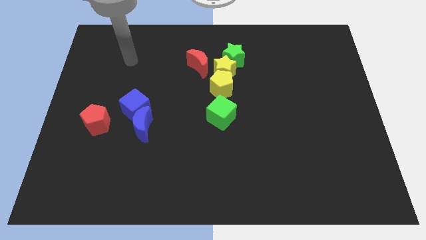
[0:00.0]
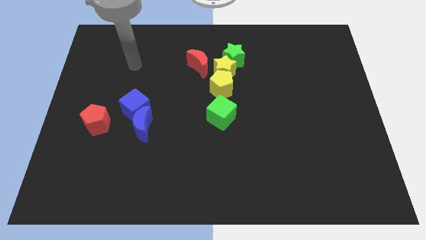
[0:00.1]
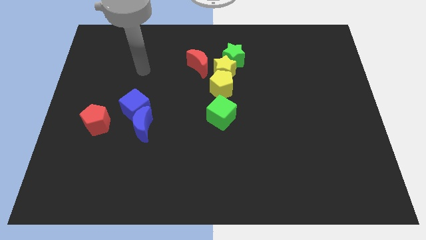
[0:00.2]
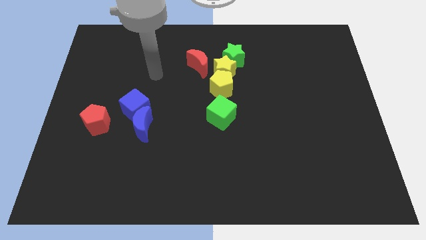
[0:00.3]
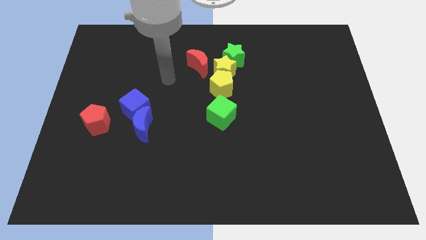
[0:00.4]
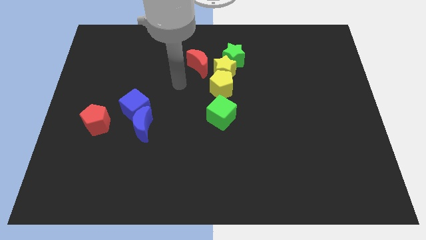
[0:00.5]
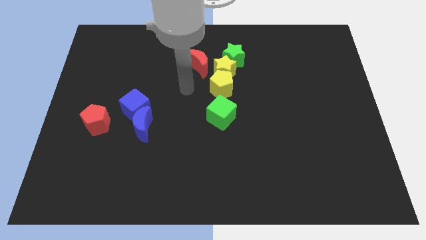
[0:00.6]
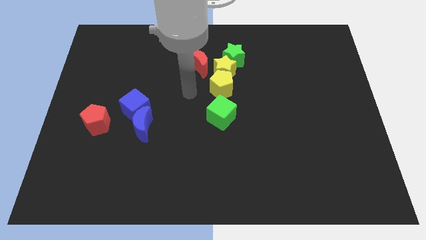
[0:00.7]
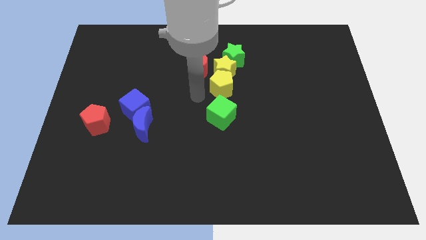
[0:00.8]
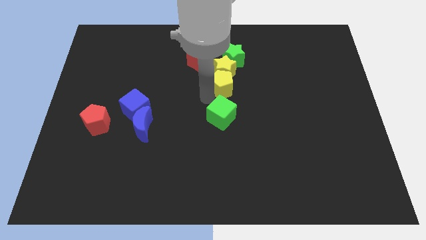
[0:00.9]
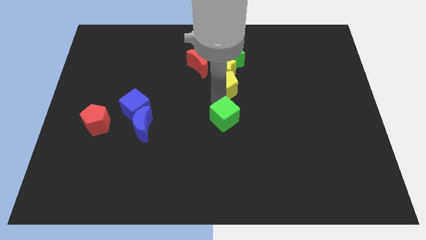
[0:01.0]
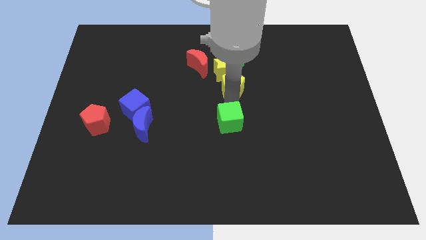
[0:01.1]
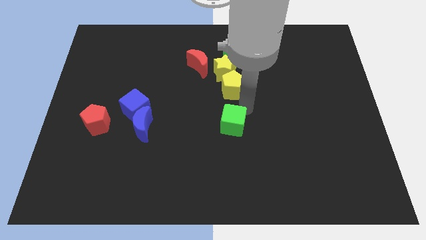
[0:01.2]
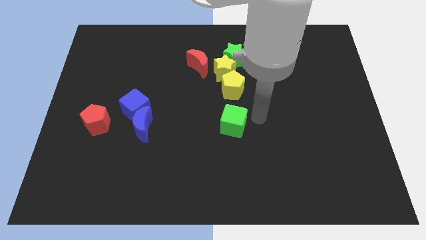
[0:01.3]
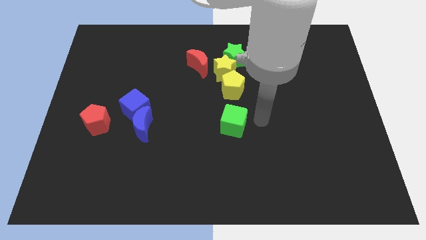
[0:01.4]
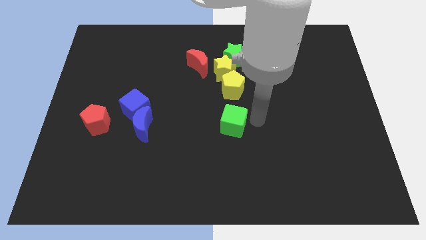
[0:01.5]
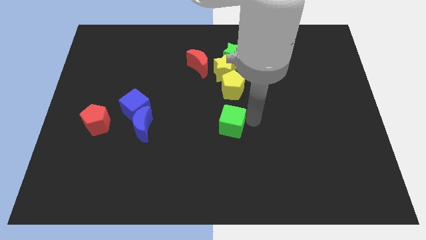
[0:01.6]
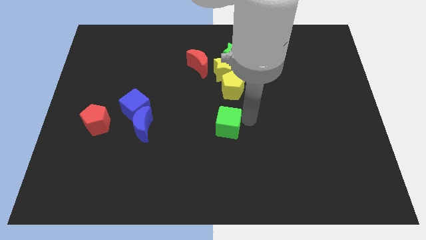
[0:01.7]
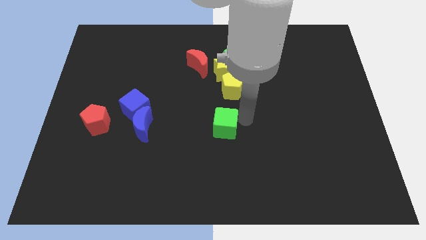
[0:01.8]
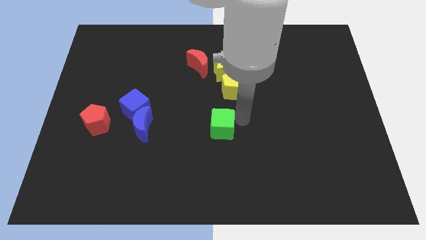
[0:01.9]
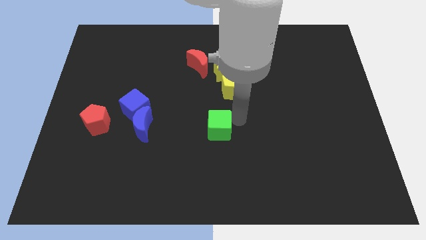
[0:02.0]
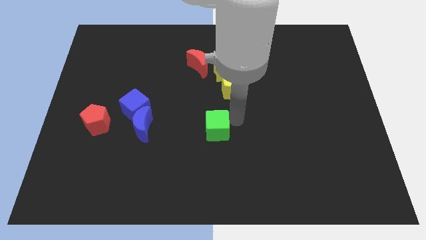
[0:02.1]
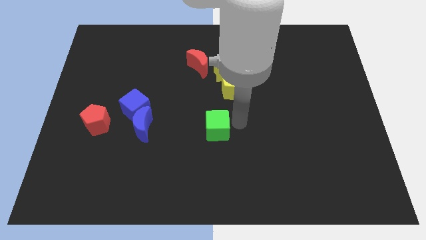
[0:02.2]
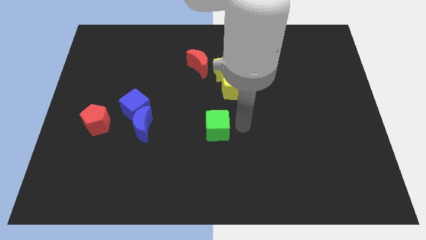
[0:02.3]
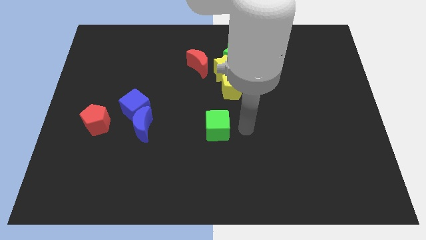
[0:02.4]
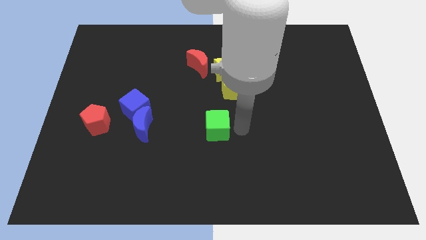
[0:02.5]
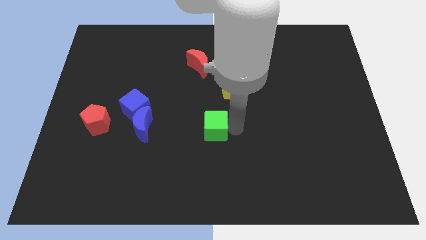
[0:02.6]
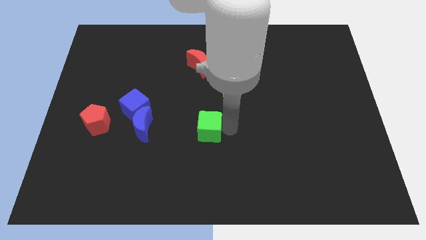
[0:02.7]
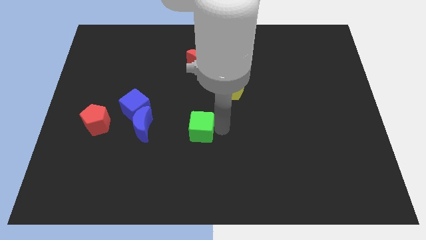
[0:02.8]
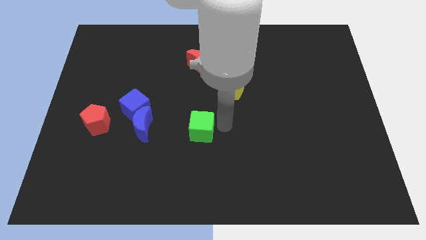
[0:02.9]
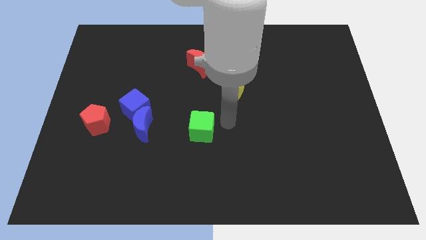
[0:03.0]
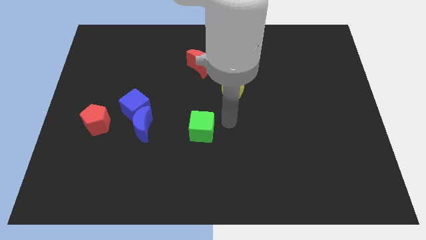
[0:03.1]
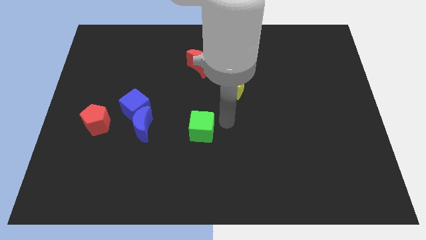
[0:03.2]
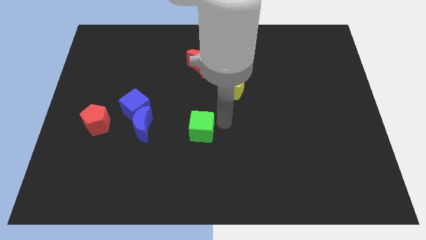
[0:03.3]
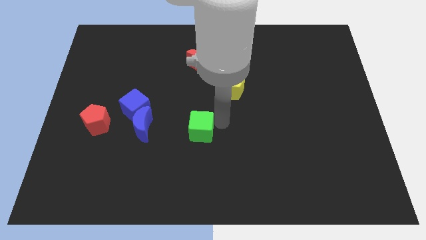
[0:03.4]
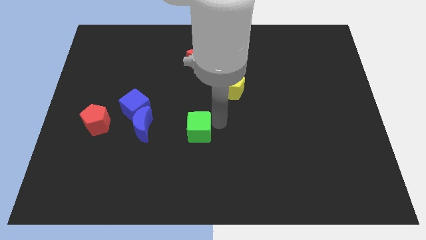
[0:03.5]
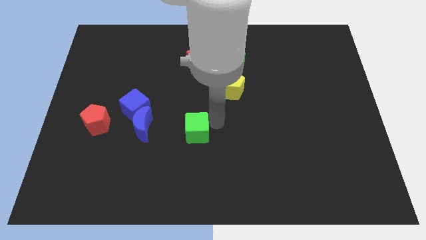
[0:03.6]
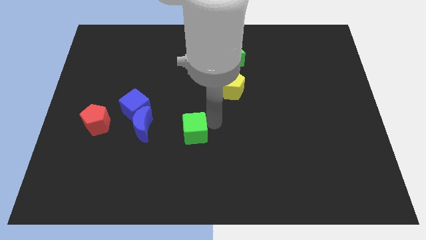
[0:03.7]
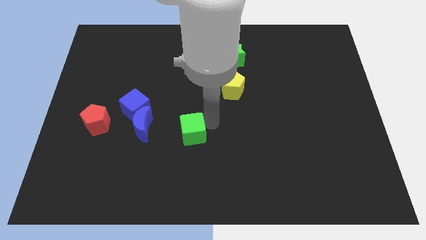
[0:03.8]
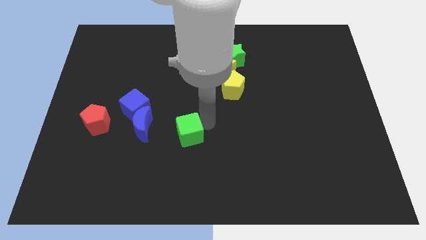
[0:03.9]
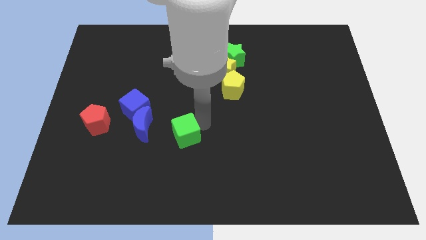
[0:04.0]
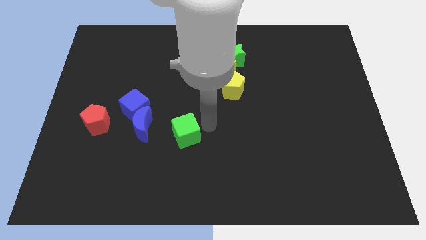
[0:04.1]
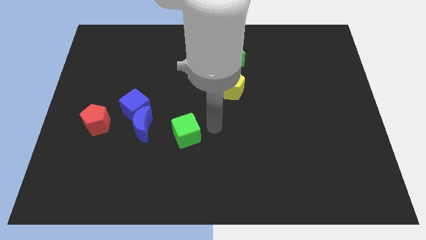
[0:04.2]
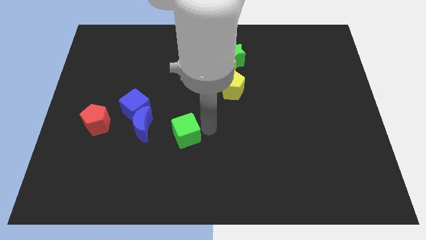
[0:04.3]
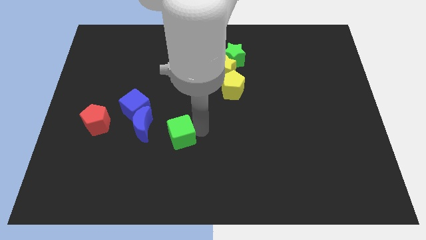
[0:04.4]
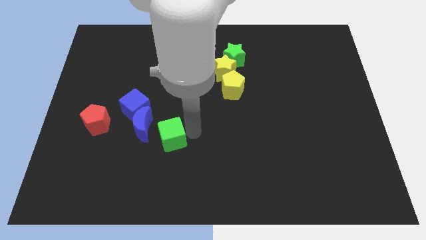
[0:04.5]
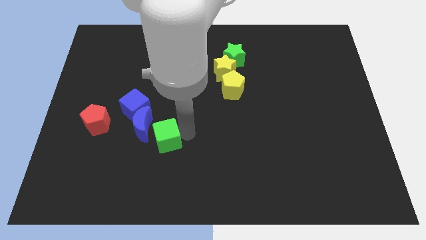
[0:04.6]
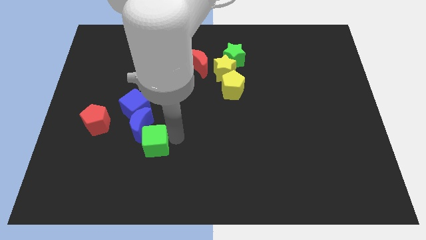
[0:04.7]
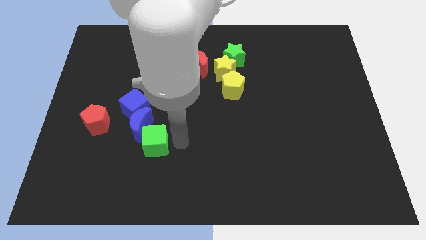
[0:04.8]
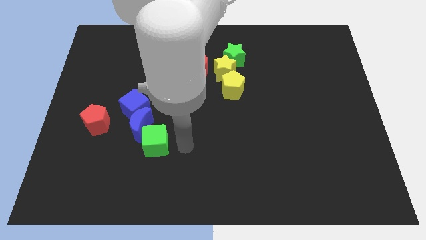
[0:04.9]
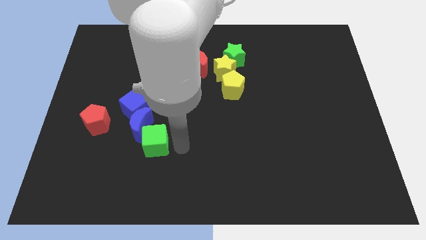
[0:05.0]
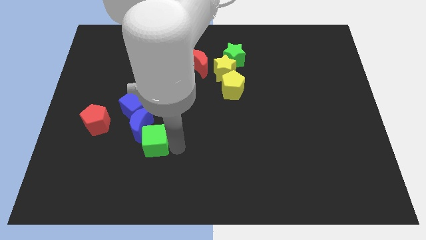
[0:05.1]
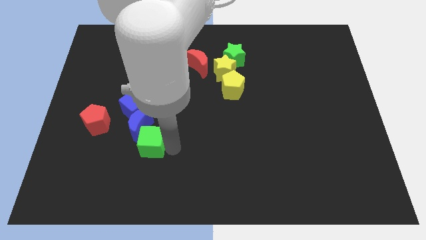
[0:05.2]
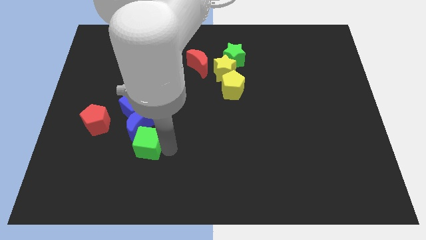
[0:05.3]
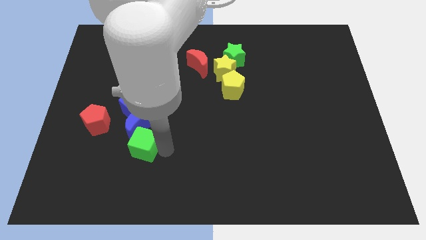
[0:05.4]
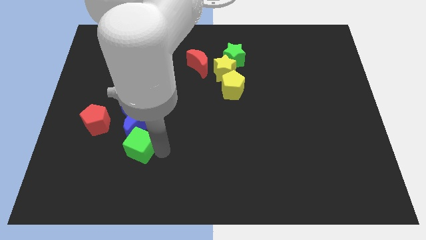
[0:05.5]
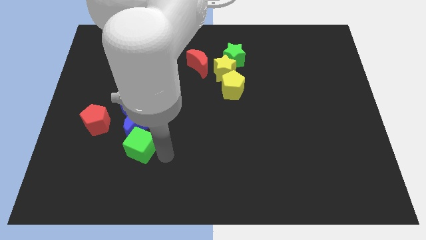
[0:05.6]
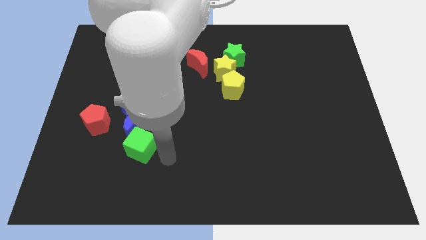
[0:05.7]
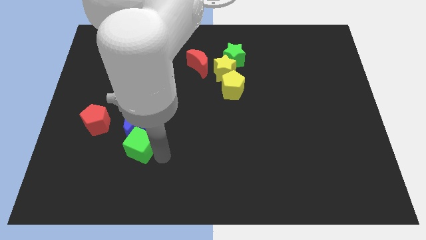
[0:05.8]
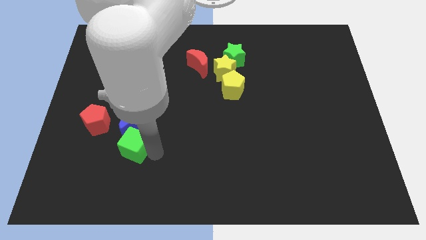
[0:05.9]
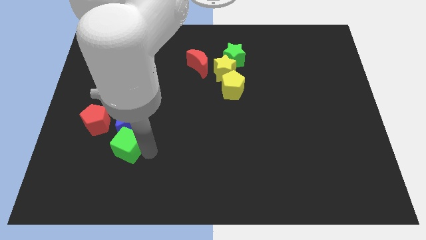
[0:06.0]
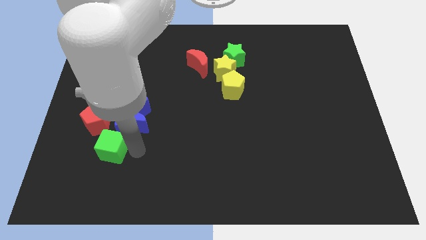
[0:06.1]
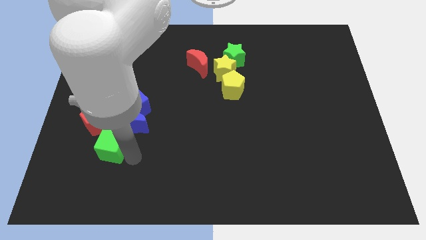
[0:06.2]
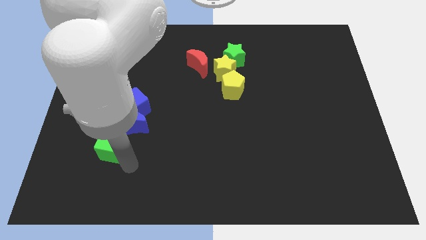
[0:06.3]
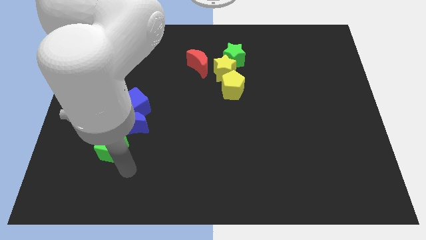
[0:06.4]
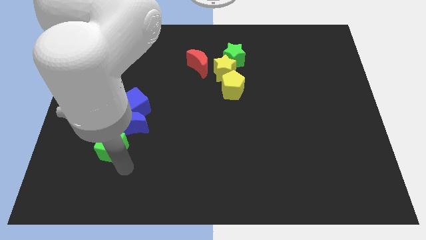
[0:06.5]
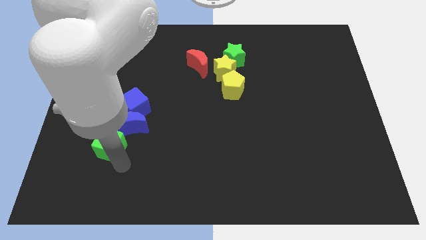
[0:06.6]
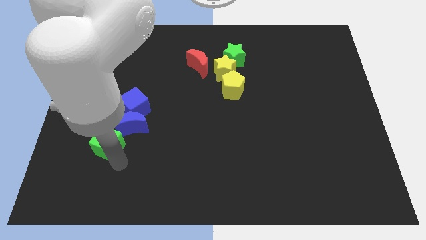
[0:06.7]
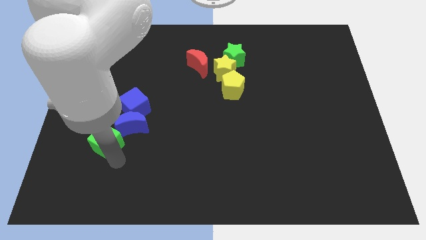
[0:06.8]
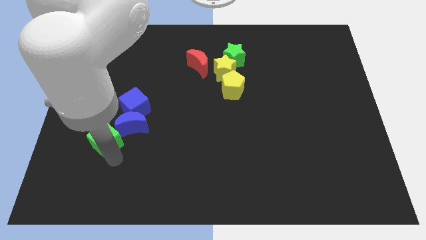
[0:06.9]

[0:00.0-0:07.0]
push the green cube close to the red pentagon
